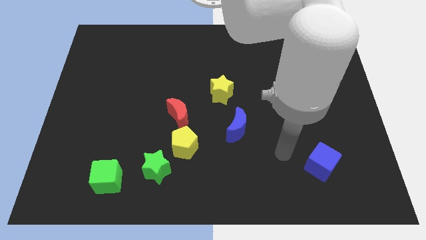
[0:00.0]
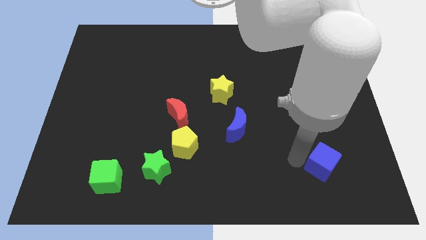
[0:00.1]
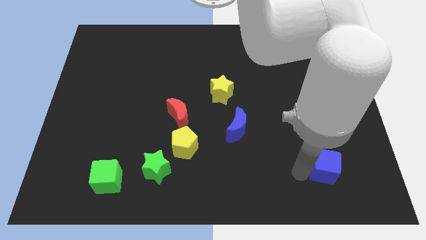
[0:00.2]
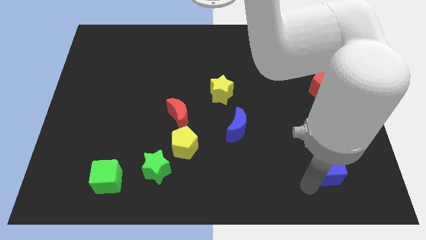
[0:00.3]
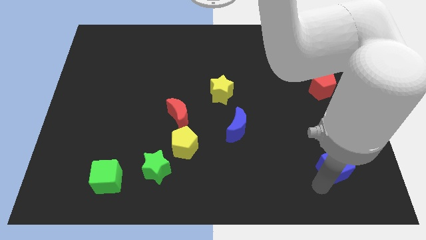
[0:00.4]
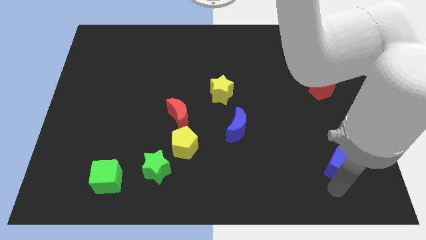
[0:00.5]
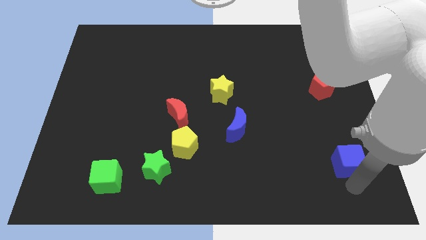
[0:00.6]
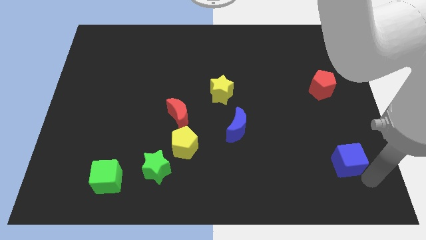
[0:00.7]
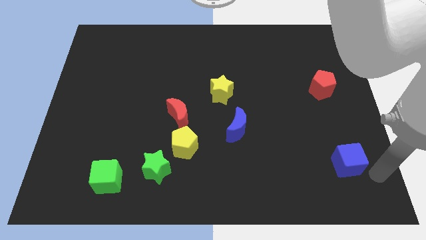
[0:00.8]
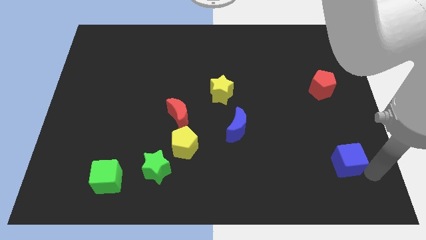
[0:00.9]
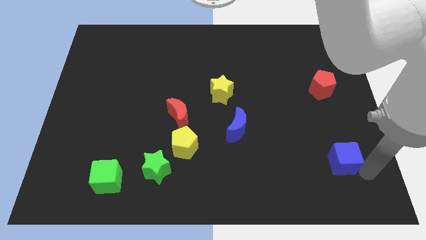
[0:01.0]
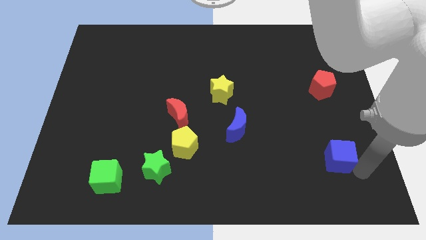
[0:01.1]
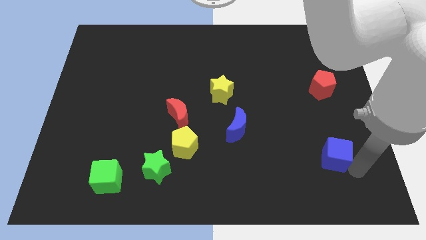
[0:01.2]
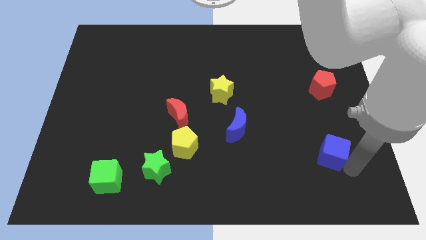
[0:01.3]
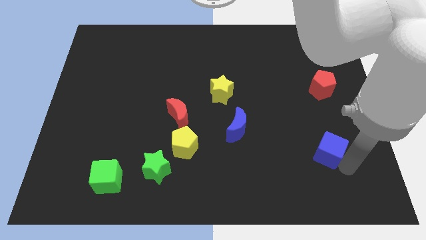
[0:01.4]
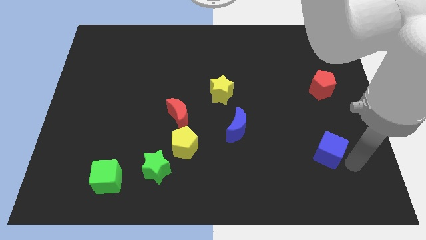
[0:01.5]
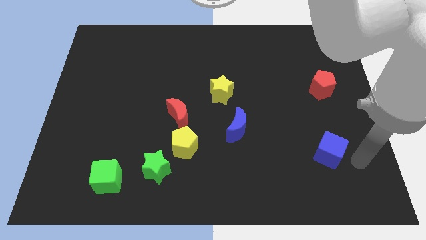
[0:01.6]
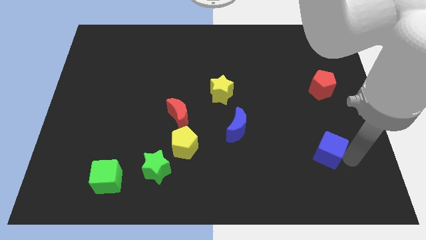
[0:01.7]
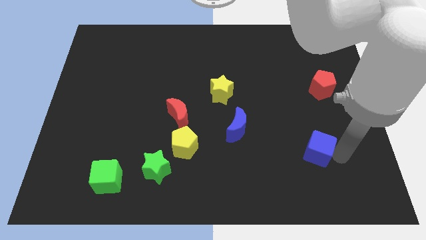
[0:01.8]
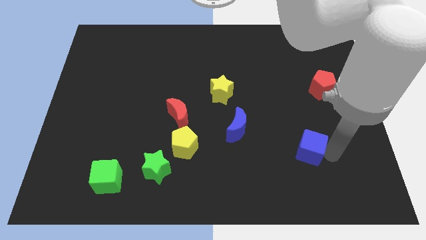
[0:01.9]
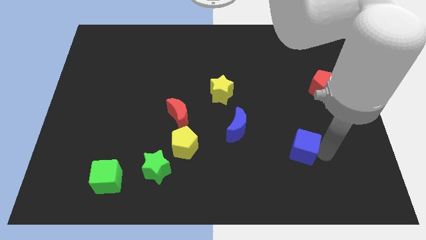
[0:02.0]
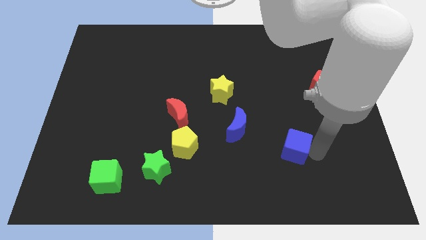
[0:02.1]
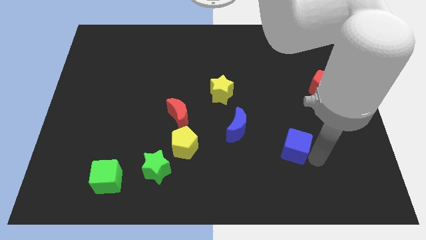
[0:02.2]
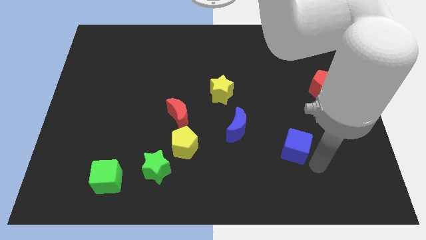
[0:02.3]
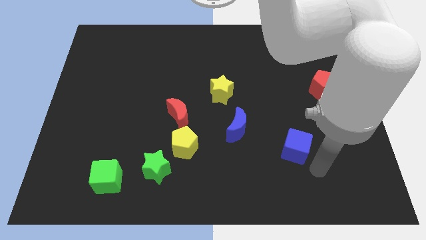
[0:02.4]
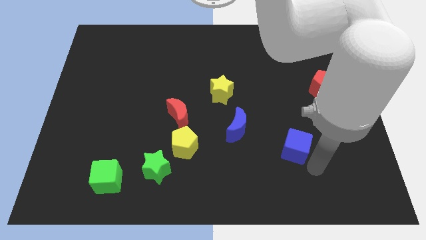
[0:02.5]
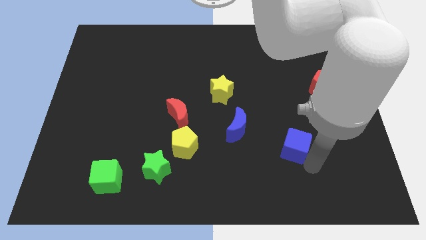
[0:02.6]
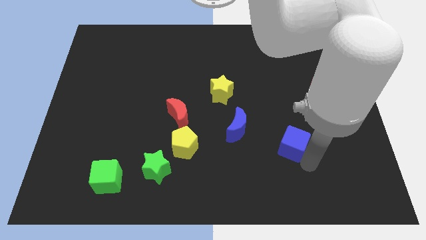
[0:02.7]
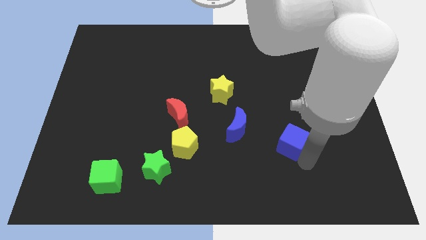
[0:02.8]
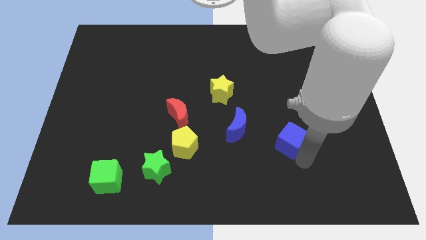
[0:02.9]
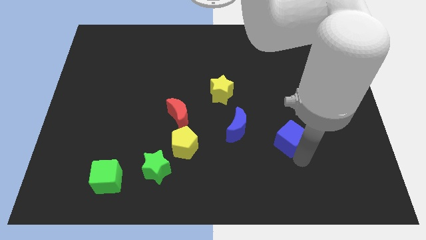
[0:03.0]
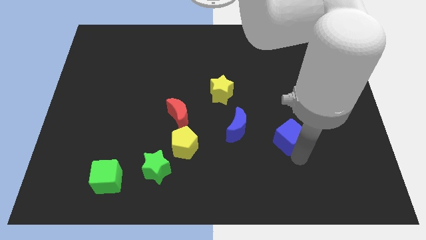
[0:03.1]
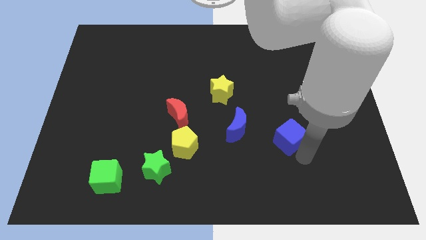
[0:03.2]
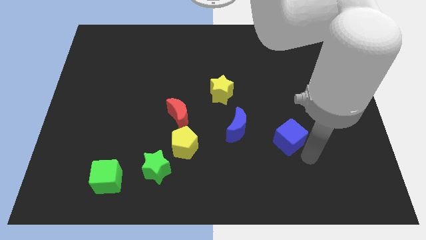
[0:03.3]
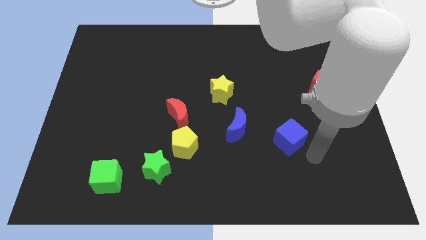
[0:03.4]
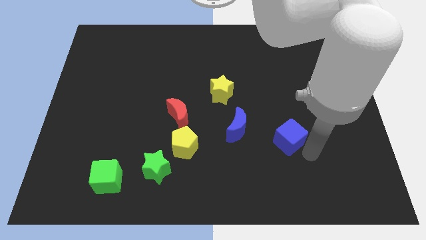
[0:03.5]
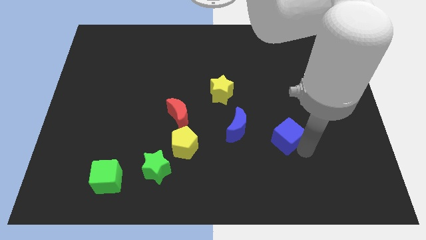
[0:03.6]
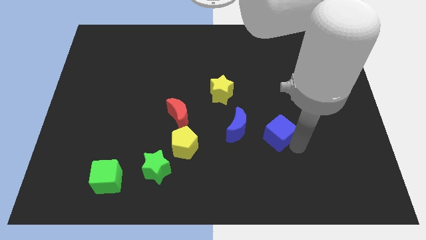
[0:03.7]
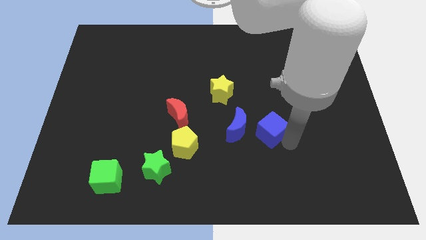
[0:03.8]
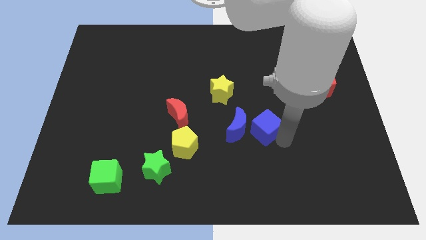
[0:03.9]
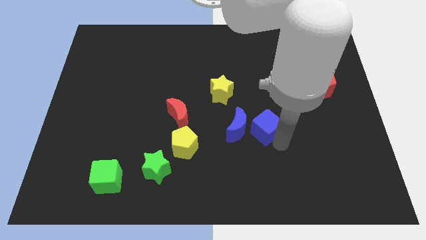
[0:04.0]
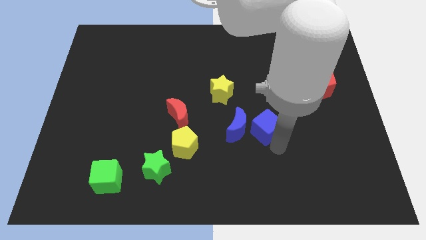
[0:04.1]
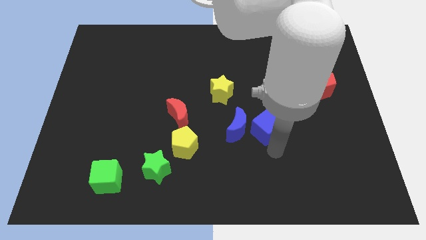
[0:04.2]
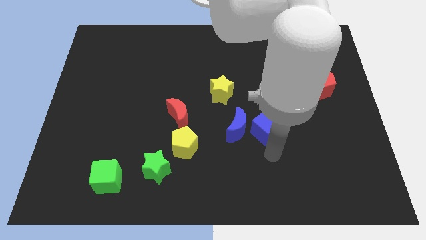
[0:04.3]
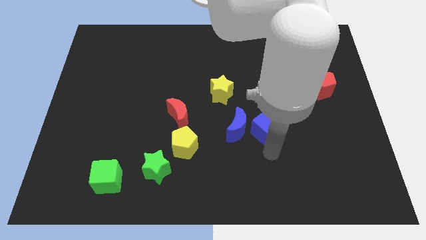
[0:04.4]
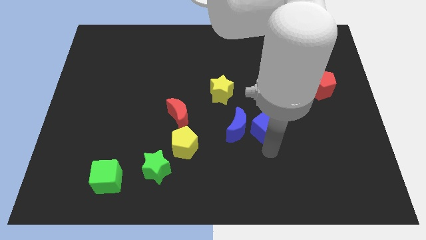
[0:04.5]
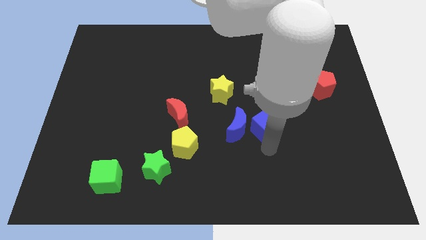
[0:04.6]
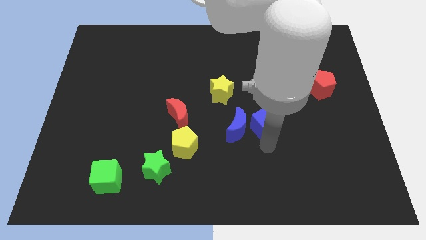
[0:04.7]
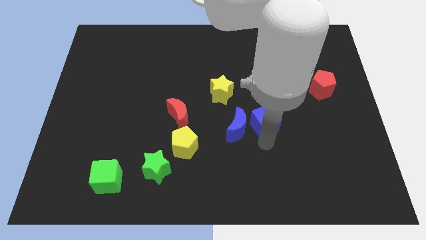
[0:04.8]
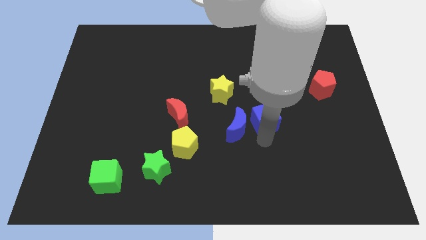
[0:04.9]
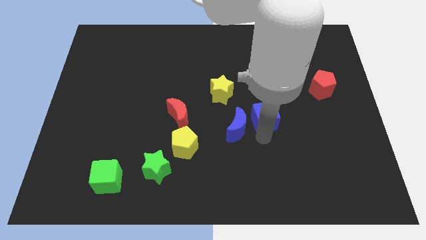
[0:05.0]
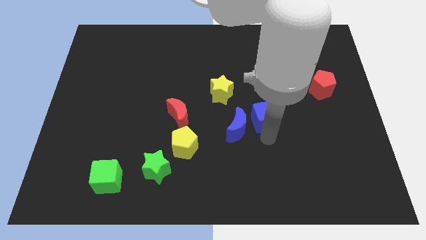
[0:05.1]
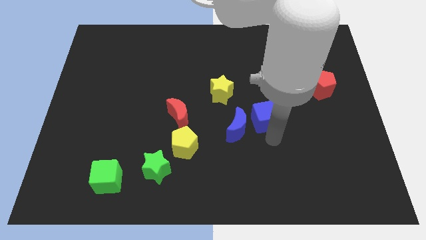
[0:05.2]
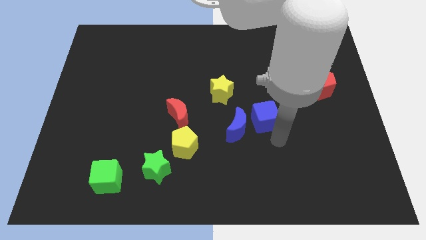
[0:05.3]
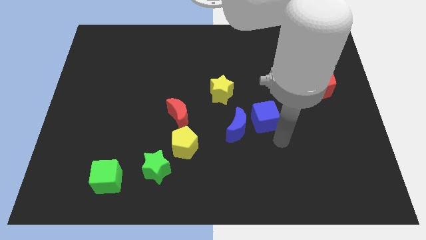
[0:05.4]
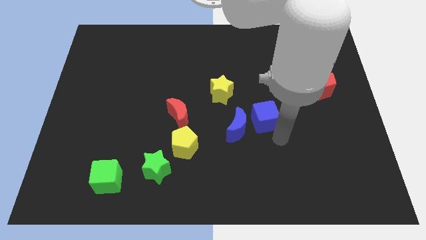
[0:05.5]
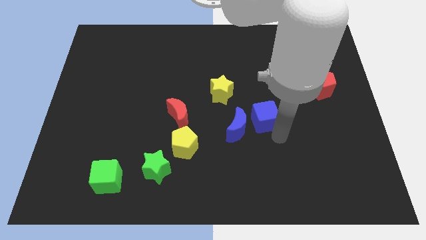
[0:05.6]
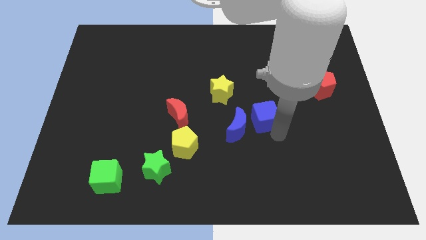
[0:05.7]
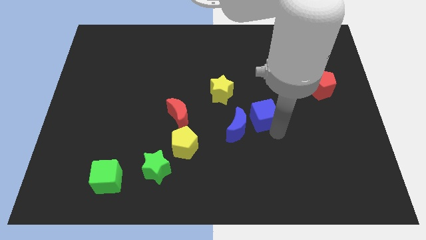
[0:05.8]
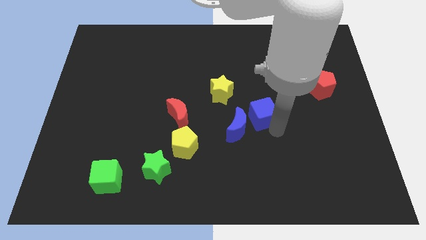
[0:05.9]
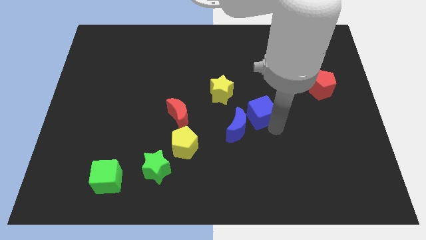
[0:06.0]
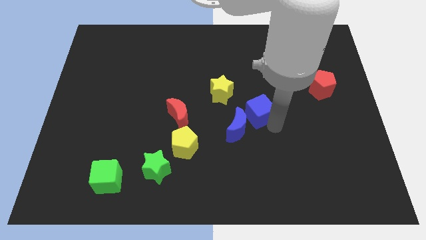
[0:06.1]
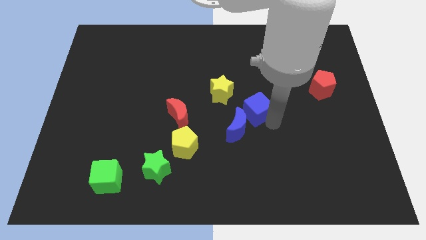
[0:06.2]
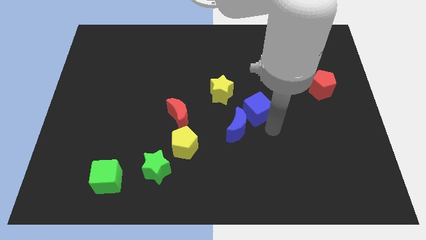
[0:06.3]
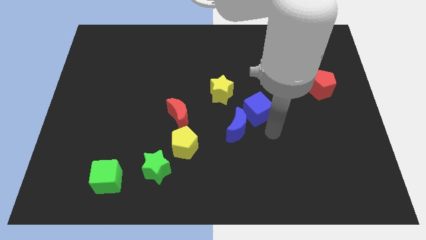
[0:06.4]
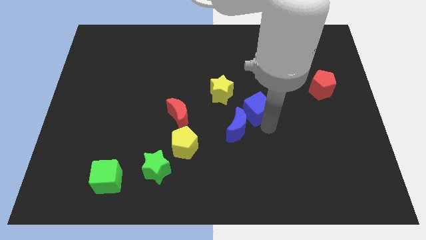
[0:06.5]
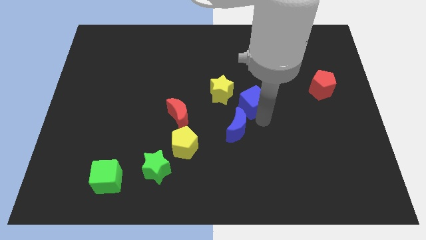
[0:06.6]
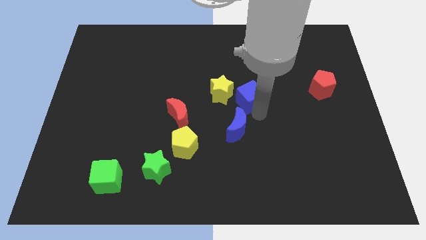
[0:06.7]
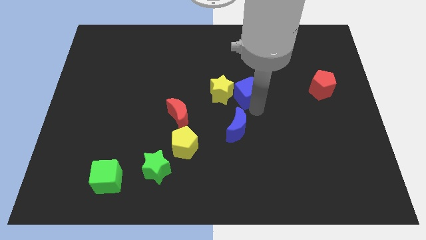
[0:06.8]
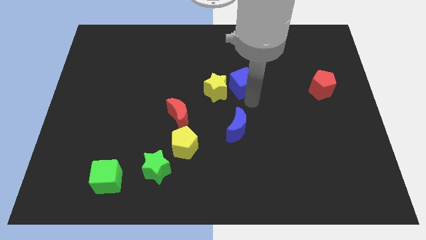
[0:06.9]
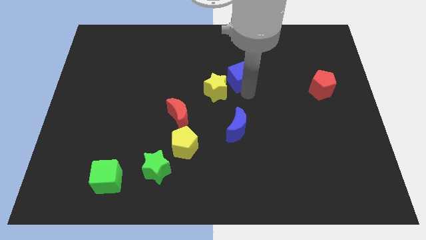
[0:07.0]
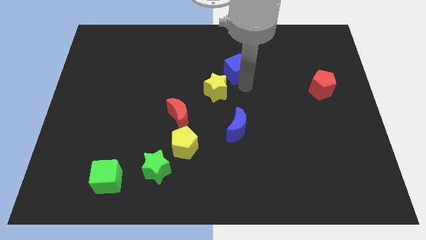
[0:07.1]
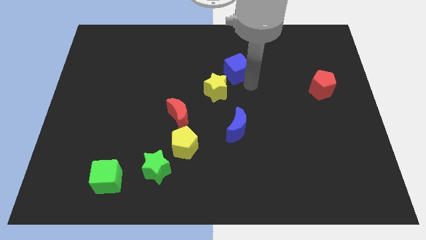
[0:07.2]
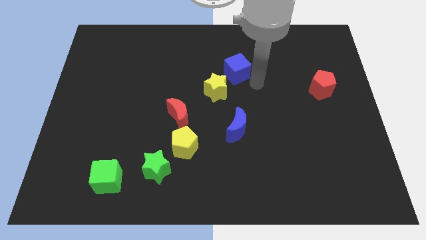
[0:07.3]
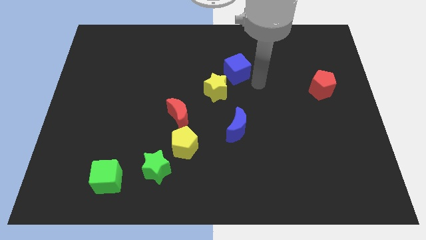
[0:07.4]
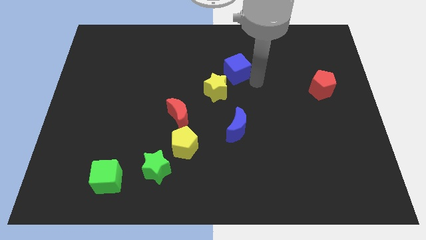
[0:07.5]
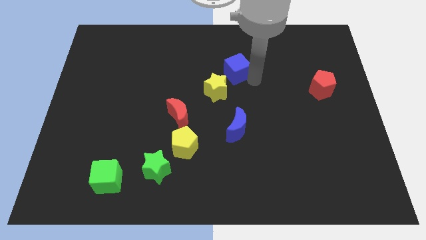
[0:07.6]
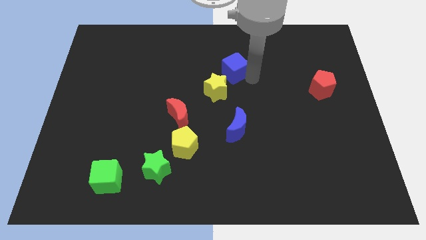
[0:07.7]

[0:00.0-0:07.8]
slide the blue cube to the top side of the yellow star
